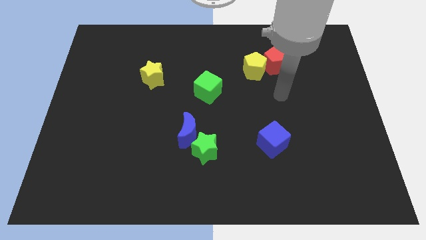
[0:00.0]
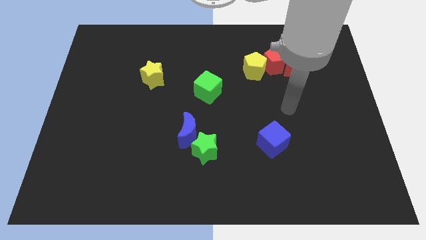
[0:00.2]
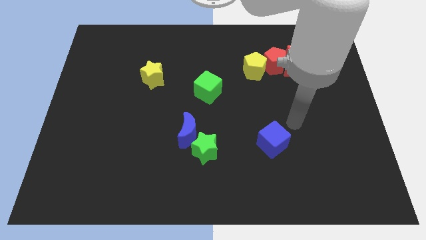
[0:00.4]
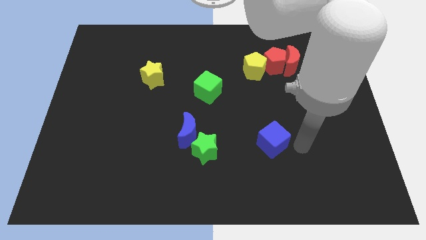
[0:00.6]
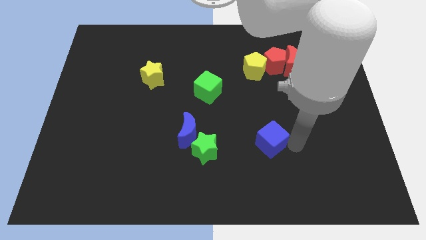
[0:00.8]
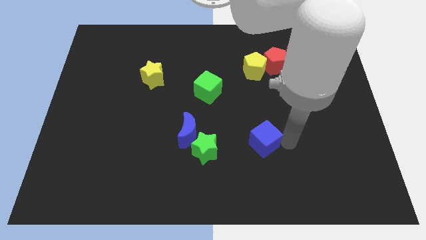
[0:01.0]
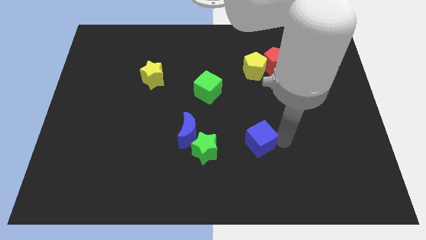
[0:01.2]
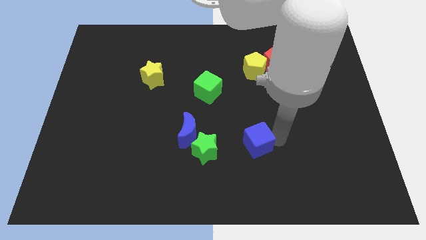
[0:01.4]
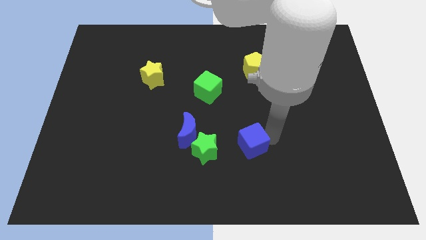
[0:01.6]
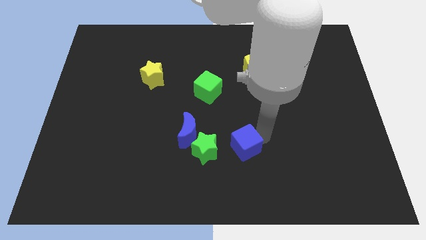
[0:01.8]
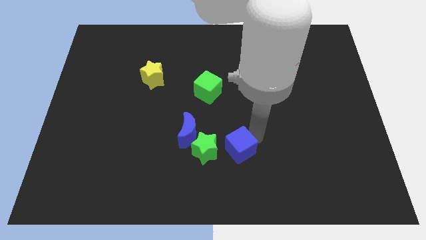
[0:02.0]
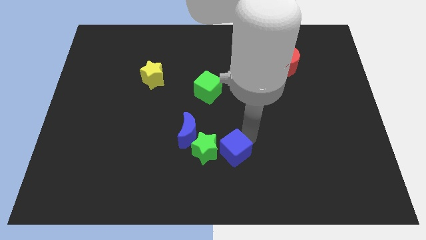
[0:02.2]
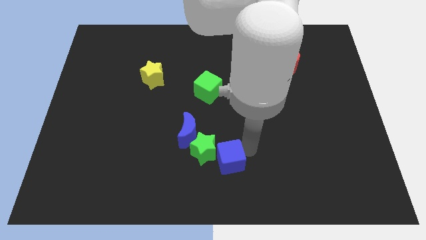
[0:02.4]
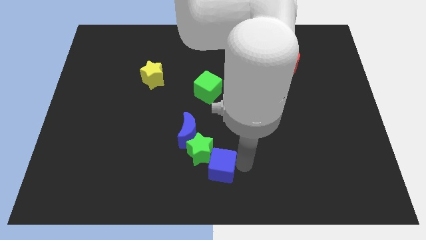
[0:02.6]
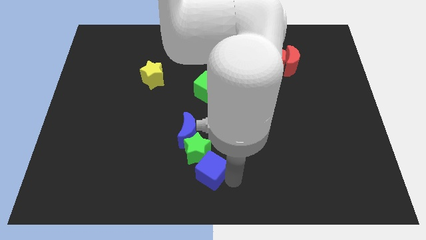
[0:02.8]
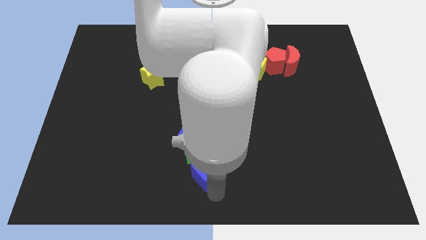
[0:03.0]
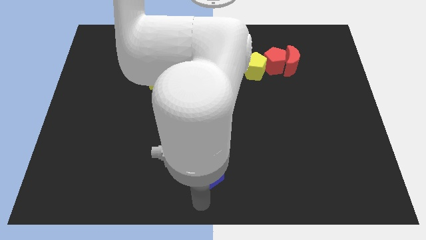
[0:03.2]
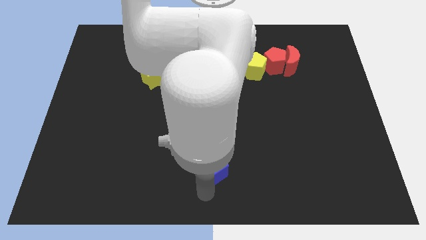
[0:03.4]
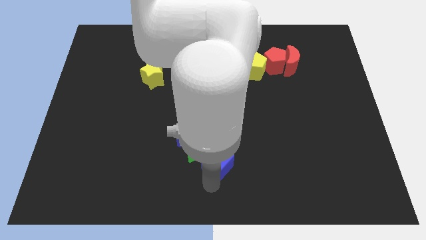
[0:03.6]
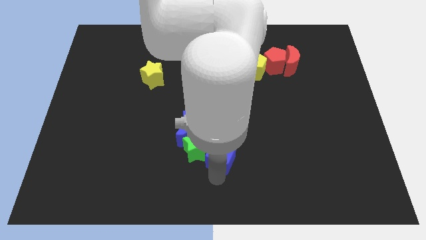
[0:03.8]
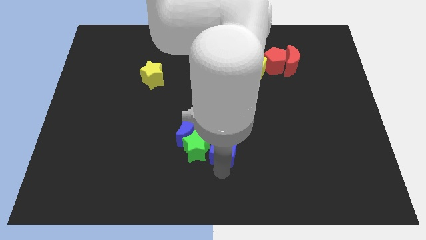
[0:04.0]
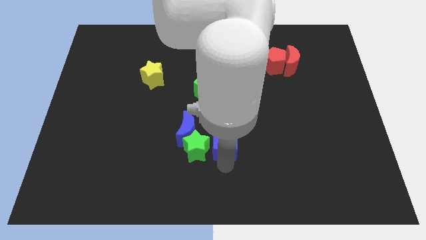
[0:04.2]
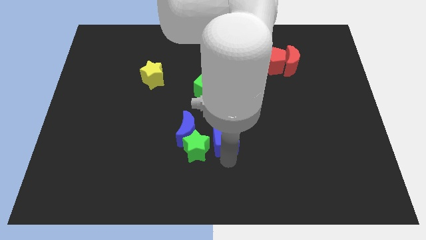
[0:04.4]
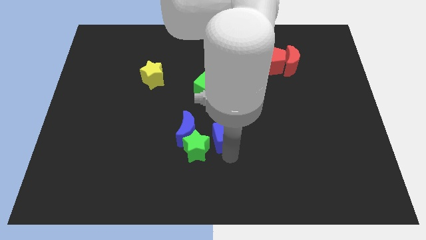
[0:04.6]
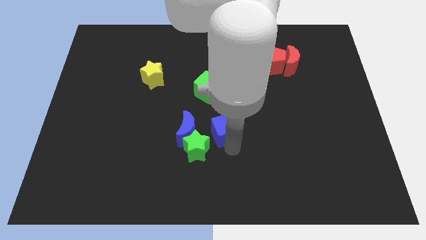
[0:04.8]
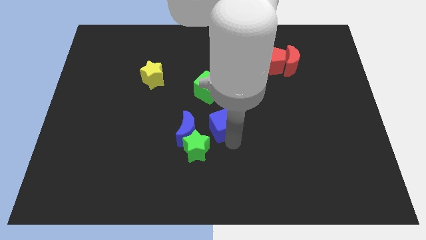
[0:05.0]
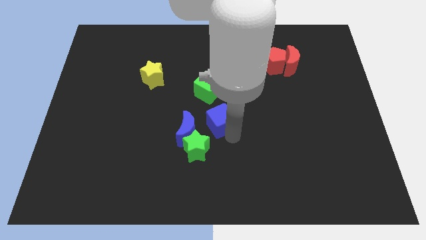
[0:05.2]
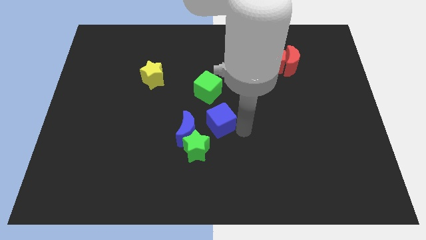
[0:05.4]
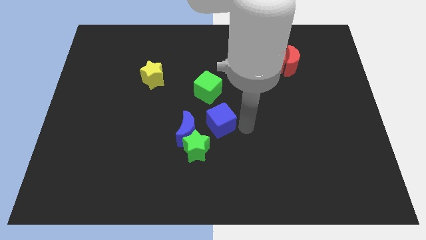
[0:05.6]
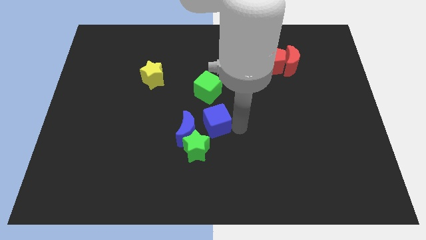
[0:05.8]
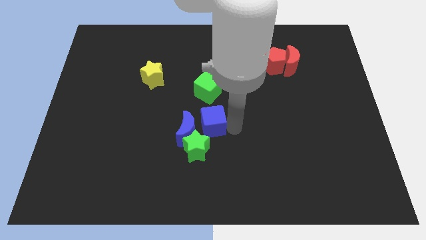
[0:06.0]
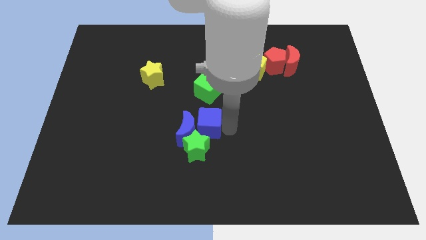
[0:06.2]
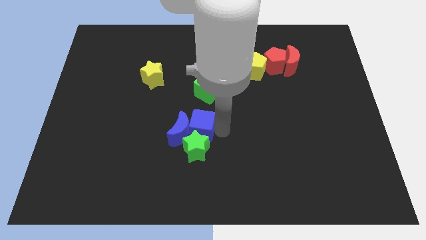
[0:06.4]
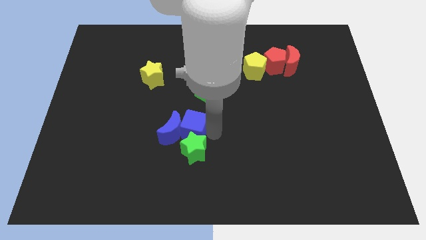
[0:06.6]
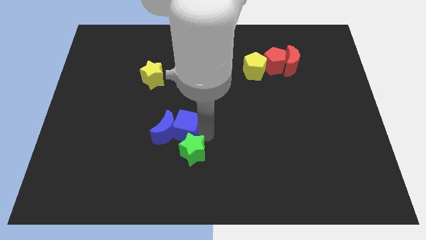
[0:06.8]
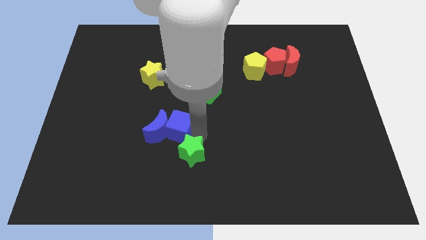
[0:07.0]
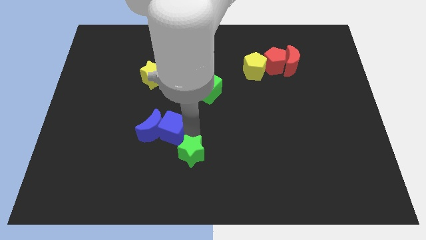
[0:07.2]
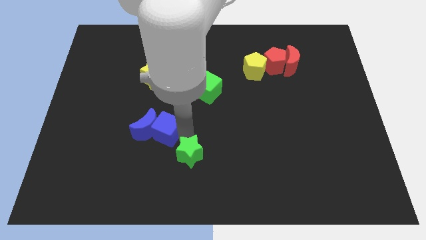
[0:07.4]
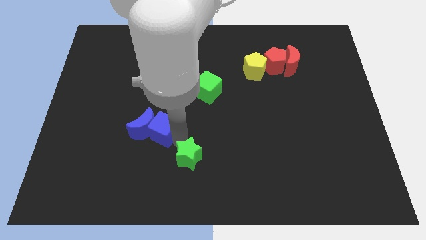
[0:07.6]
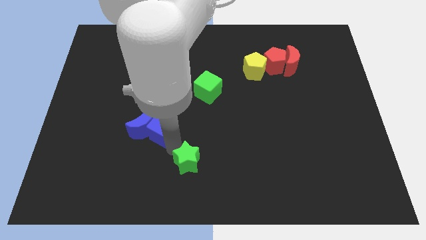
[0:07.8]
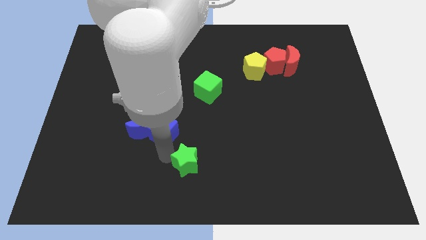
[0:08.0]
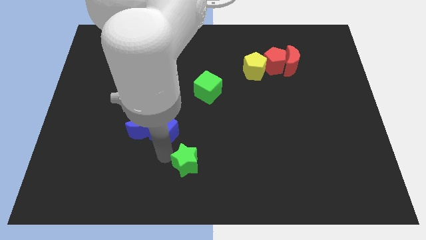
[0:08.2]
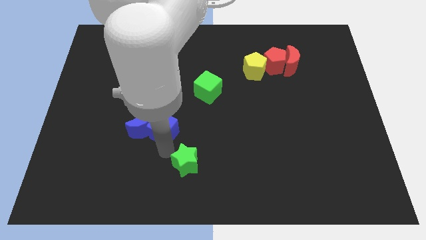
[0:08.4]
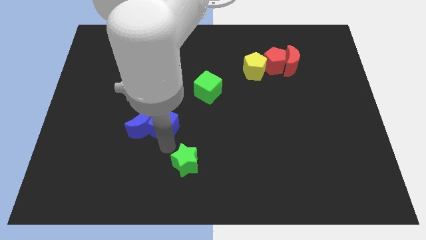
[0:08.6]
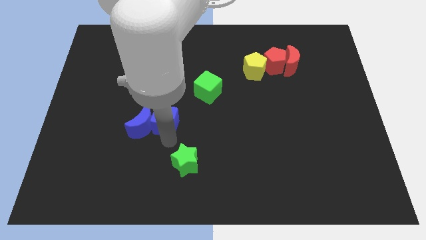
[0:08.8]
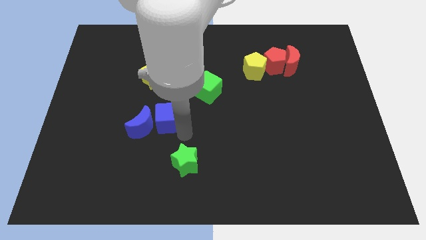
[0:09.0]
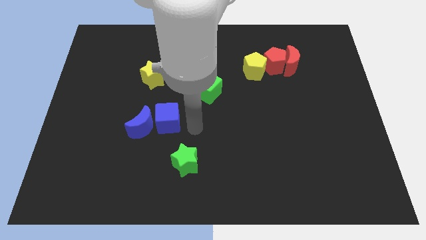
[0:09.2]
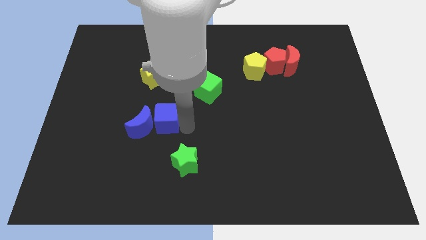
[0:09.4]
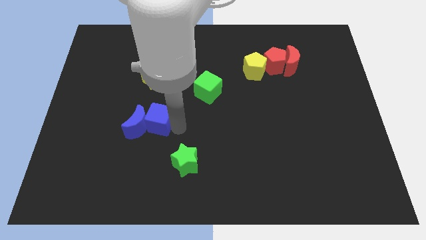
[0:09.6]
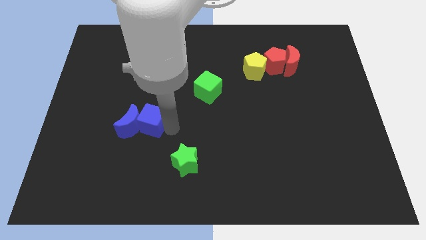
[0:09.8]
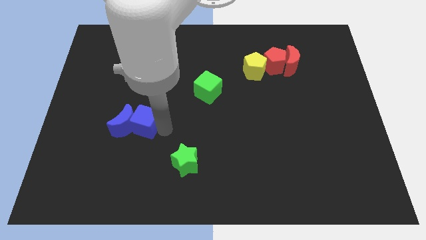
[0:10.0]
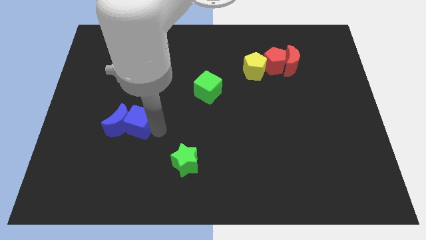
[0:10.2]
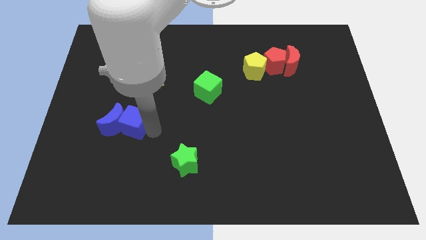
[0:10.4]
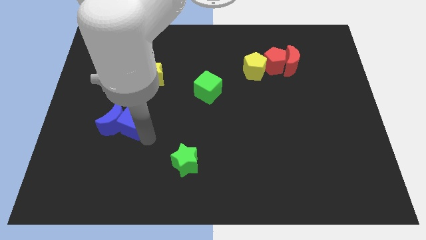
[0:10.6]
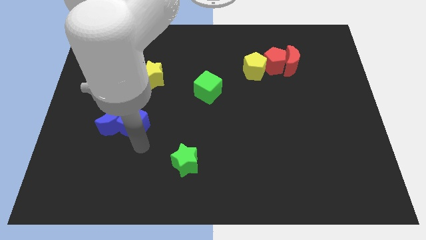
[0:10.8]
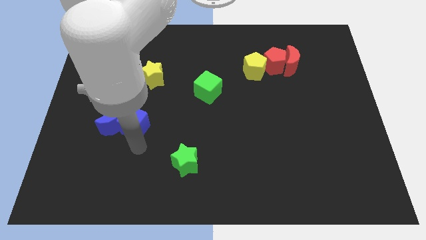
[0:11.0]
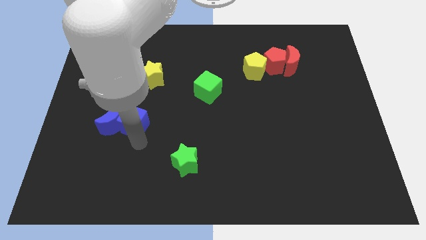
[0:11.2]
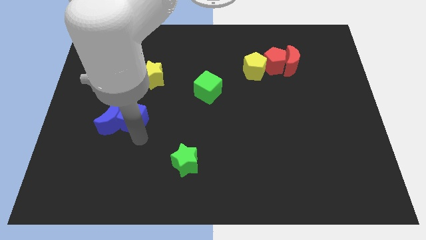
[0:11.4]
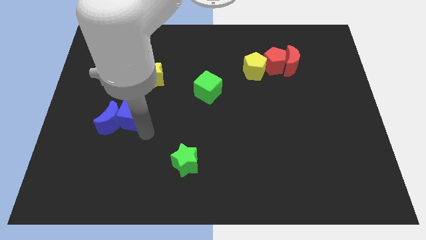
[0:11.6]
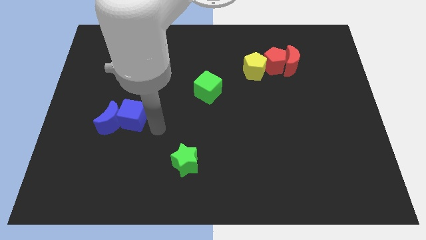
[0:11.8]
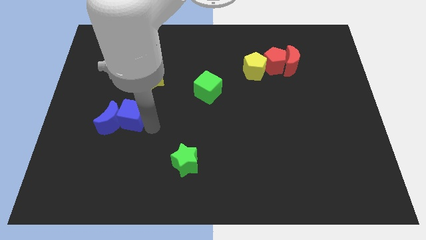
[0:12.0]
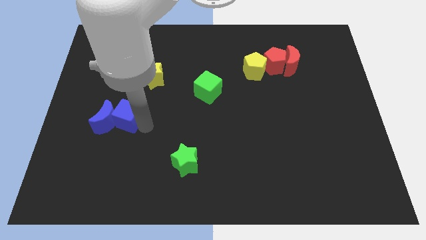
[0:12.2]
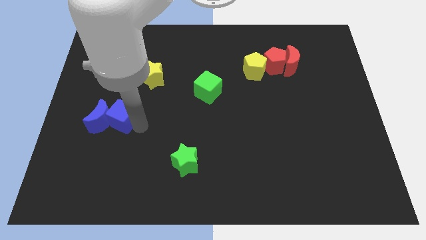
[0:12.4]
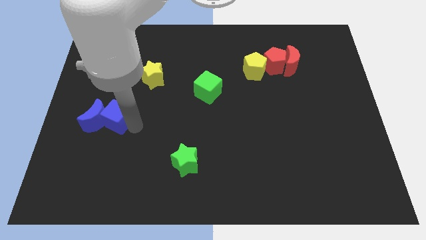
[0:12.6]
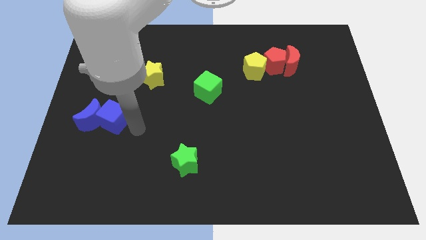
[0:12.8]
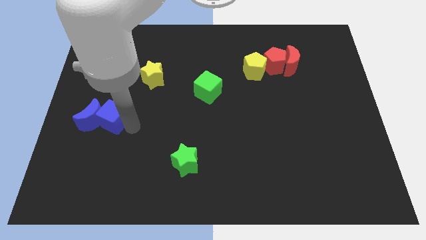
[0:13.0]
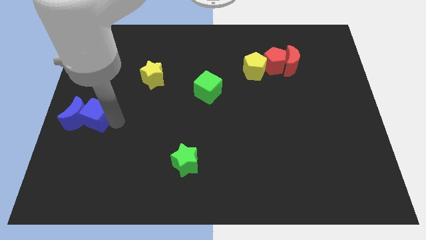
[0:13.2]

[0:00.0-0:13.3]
slide the blue cube to the left side of the board
